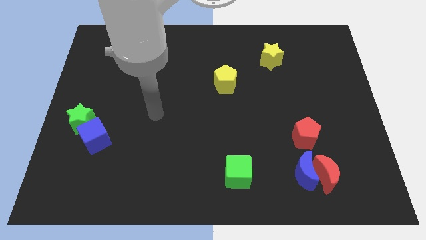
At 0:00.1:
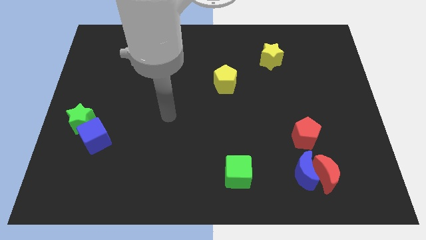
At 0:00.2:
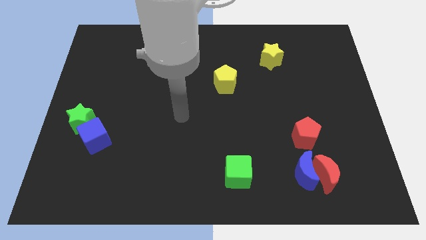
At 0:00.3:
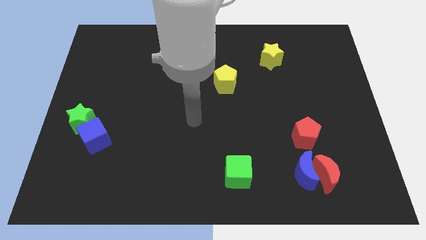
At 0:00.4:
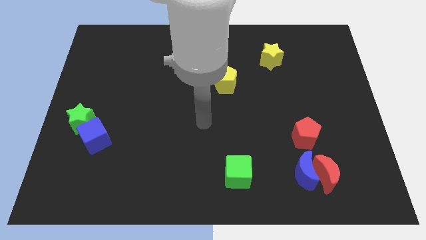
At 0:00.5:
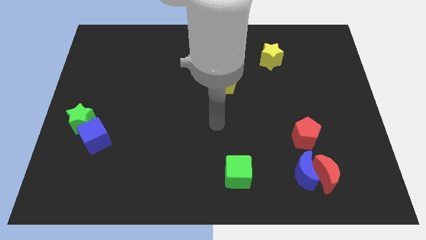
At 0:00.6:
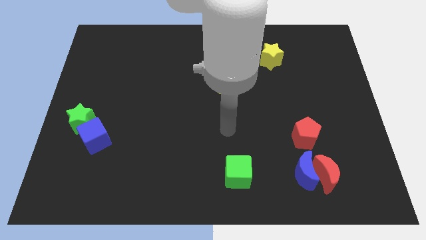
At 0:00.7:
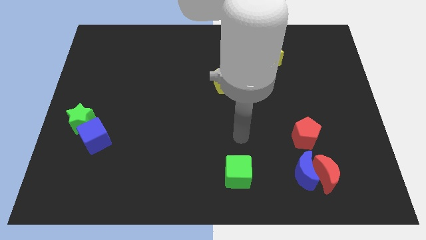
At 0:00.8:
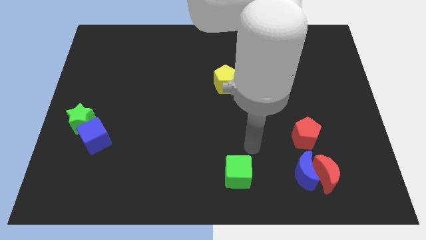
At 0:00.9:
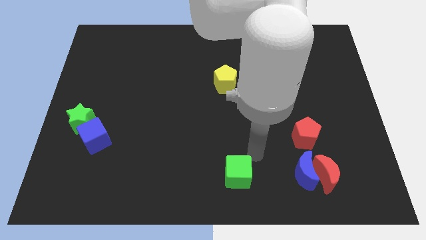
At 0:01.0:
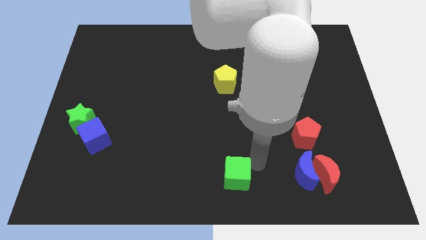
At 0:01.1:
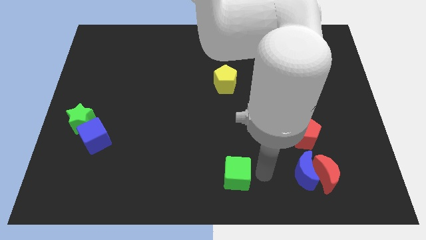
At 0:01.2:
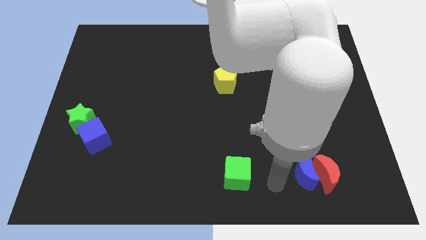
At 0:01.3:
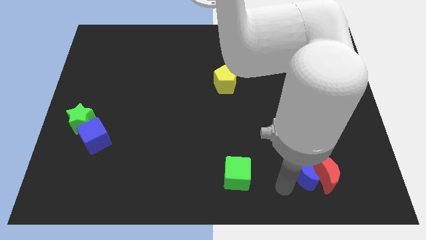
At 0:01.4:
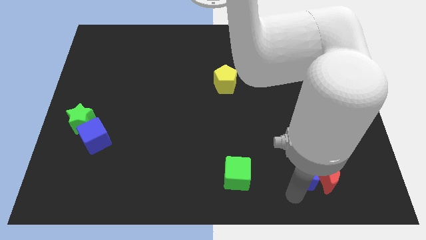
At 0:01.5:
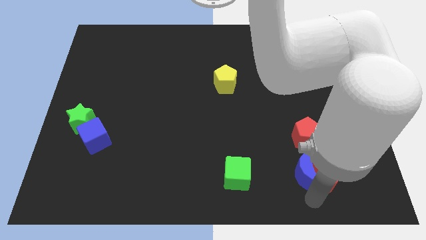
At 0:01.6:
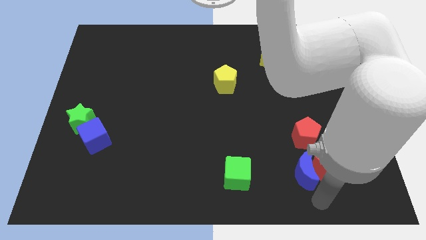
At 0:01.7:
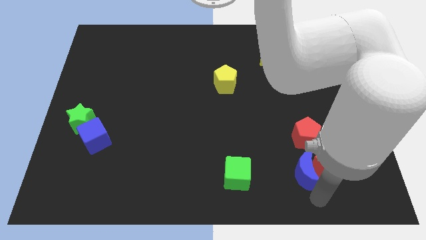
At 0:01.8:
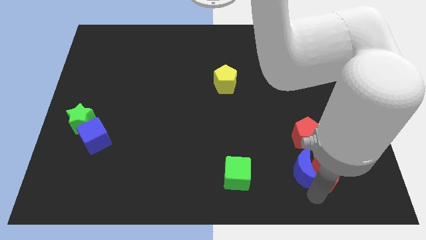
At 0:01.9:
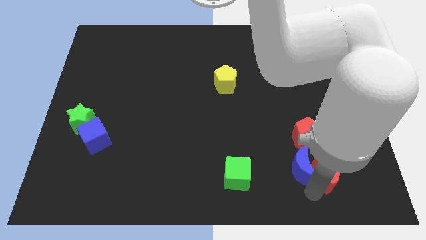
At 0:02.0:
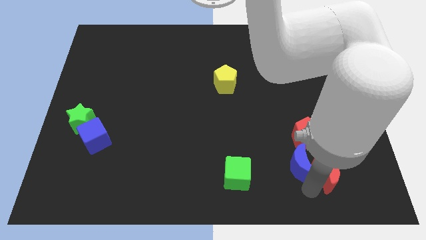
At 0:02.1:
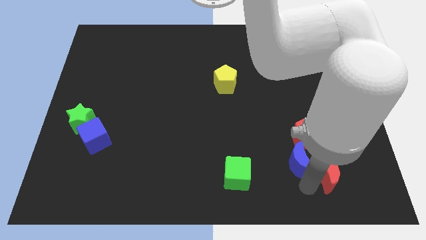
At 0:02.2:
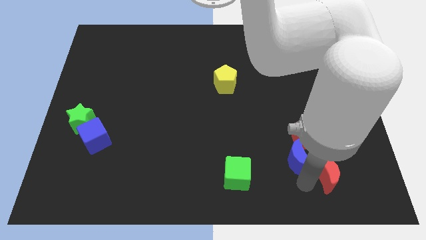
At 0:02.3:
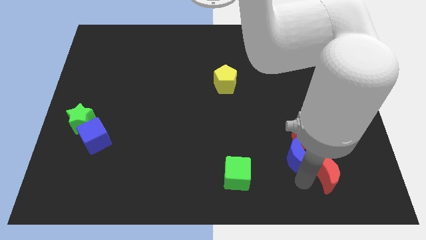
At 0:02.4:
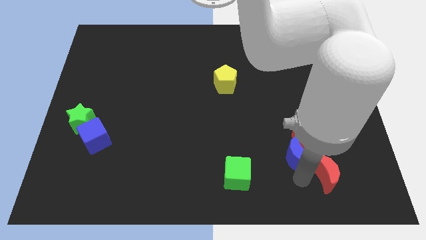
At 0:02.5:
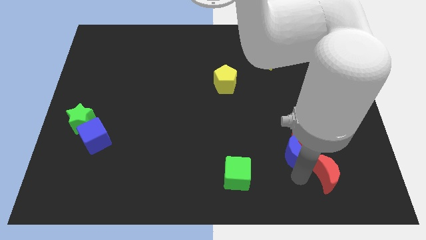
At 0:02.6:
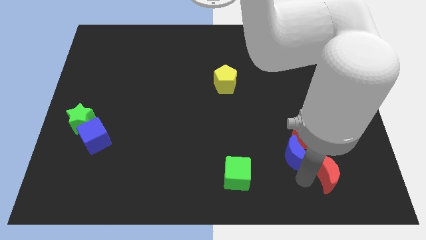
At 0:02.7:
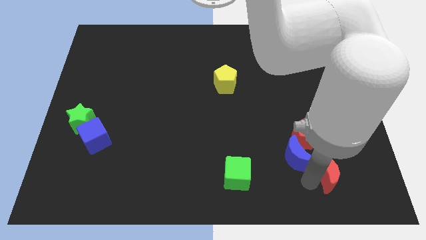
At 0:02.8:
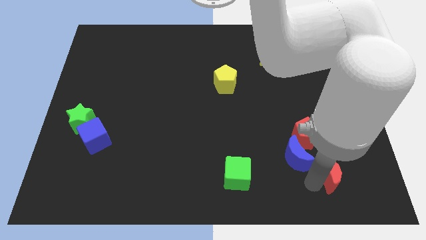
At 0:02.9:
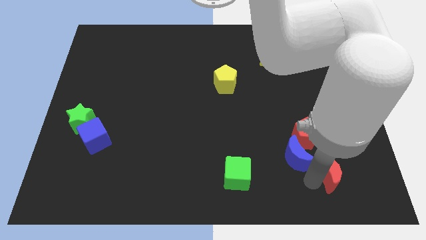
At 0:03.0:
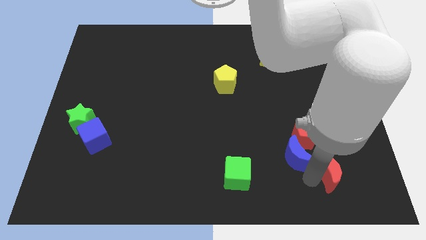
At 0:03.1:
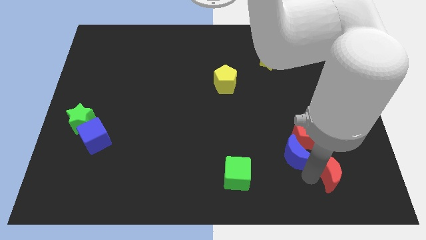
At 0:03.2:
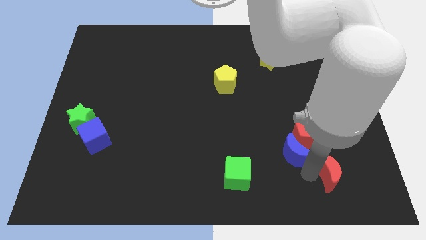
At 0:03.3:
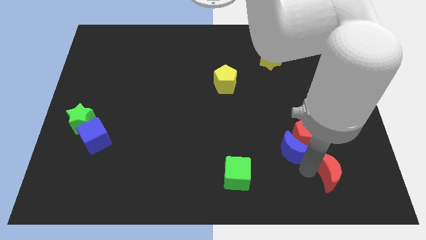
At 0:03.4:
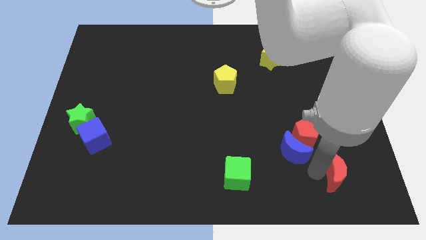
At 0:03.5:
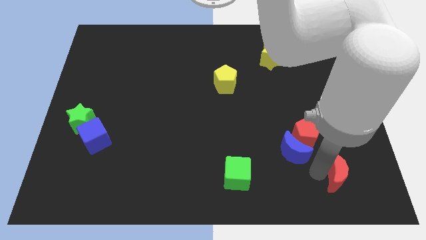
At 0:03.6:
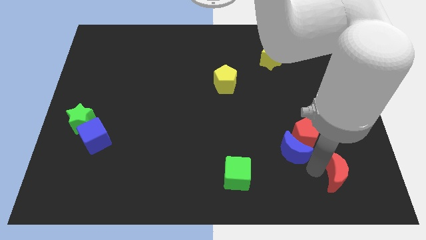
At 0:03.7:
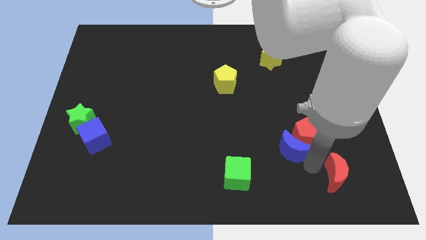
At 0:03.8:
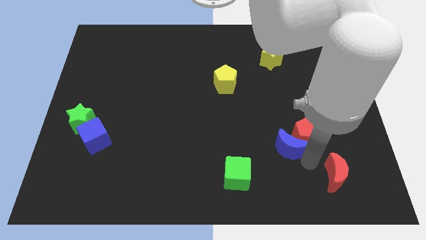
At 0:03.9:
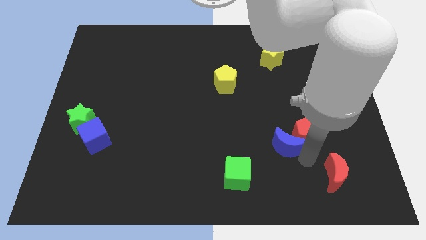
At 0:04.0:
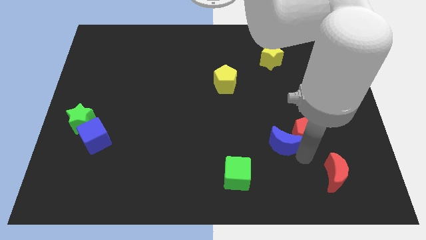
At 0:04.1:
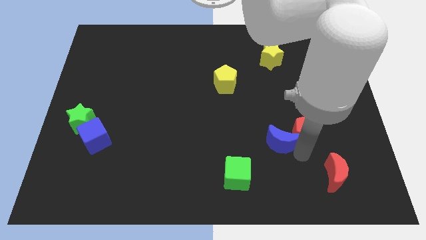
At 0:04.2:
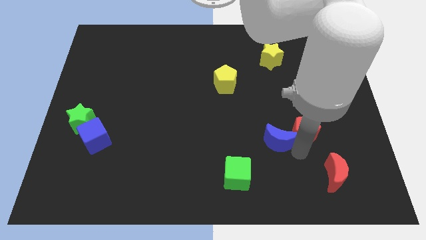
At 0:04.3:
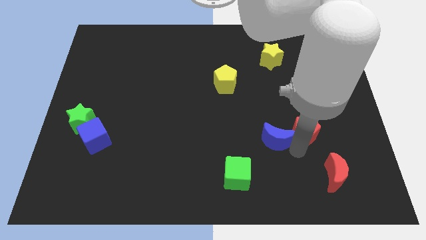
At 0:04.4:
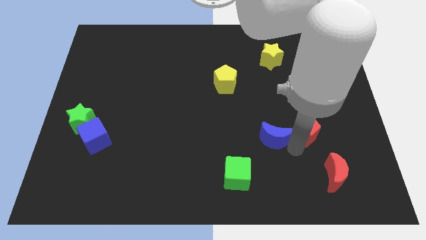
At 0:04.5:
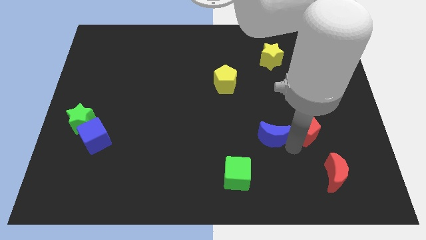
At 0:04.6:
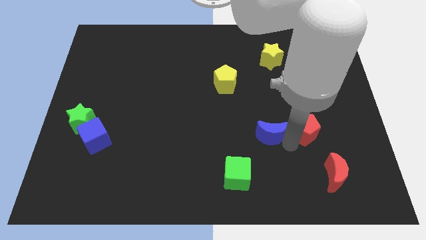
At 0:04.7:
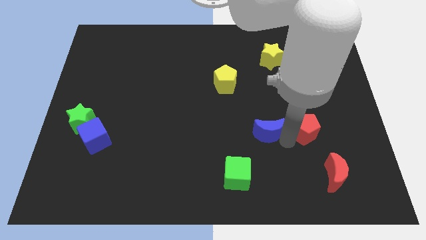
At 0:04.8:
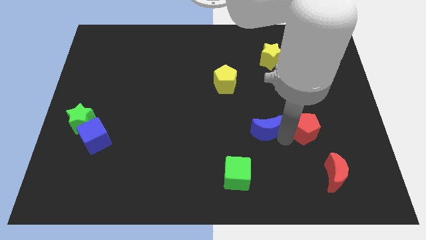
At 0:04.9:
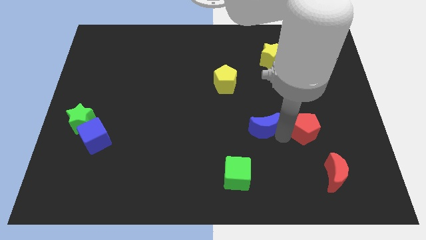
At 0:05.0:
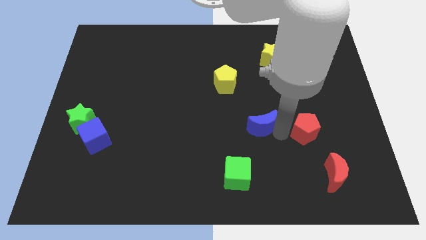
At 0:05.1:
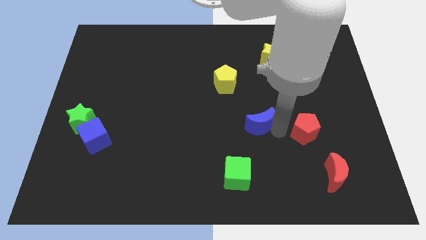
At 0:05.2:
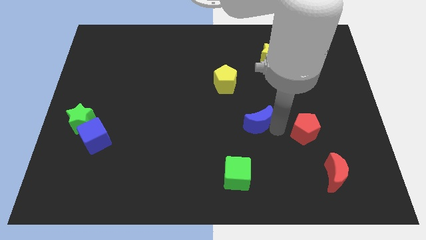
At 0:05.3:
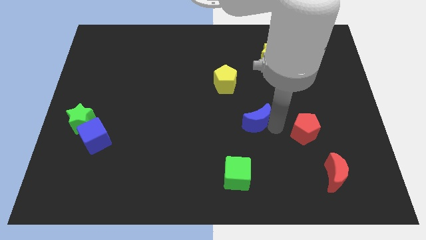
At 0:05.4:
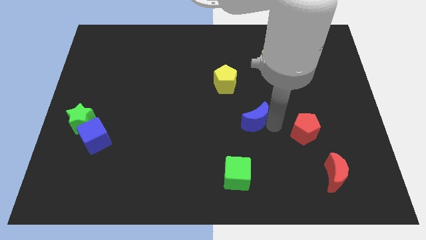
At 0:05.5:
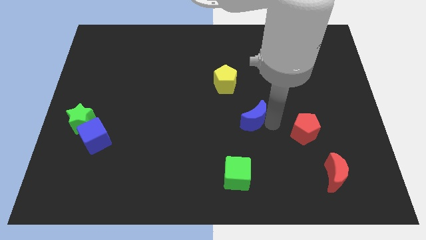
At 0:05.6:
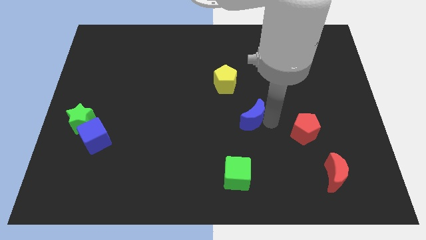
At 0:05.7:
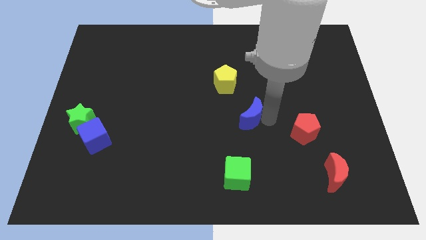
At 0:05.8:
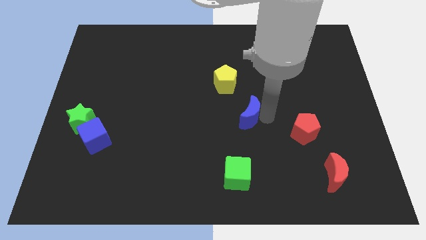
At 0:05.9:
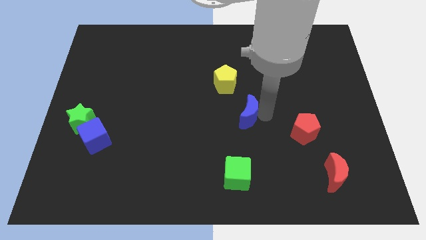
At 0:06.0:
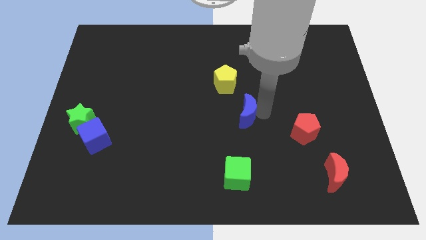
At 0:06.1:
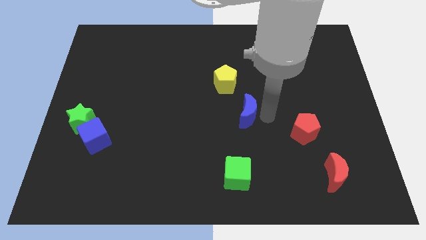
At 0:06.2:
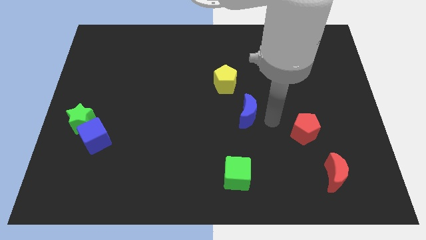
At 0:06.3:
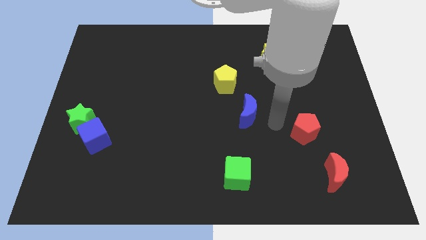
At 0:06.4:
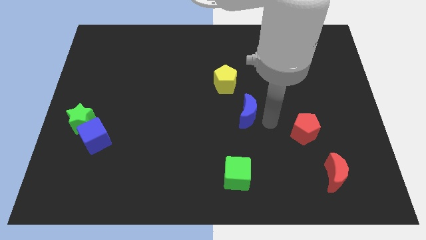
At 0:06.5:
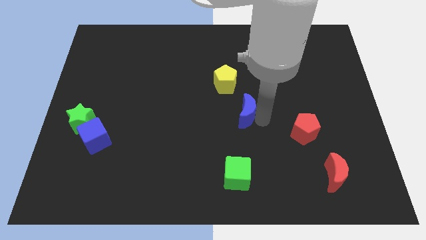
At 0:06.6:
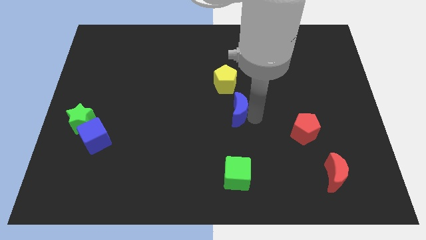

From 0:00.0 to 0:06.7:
push the blue moon upwards and then left

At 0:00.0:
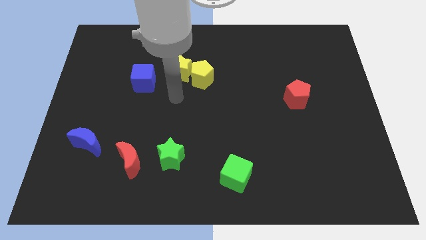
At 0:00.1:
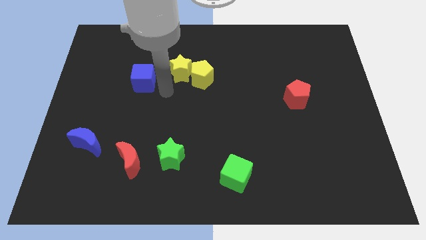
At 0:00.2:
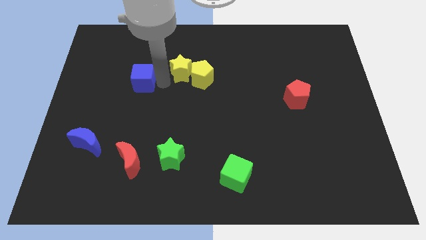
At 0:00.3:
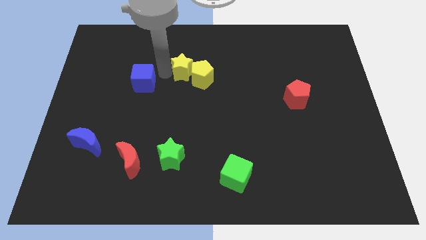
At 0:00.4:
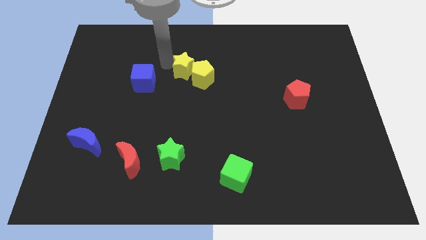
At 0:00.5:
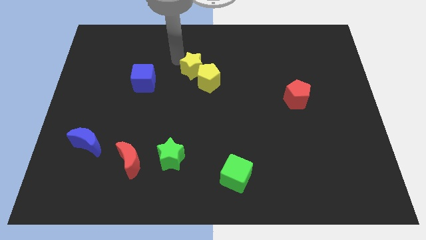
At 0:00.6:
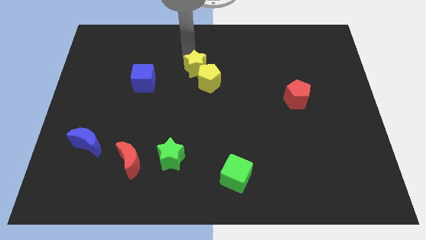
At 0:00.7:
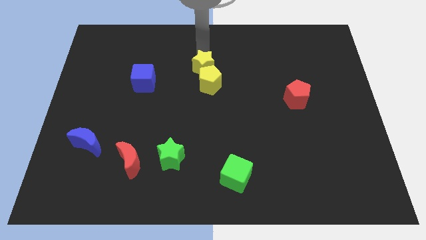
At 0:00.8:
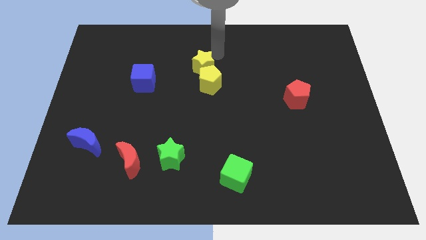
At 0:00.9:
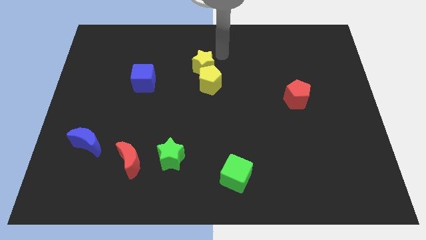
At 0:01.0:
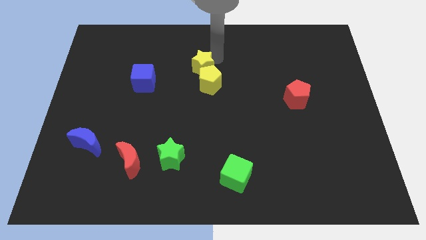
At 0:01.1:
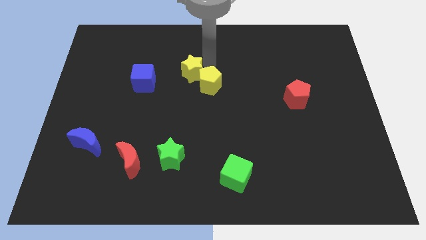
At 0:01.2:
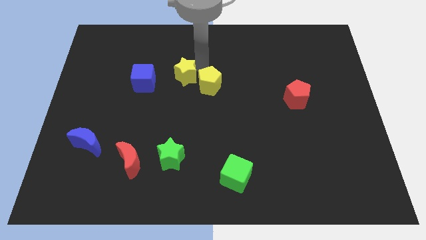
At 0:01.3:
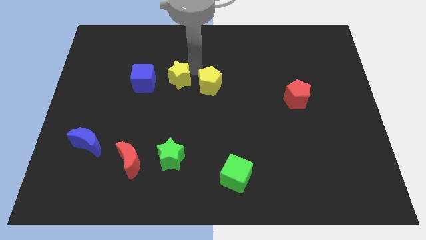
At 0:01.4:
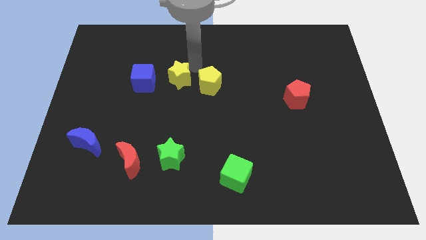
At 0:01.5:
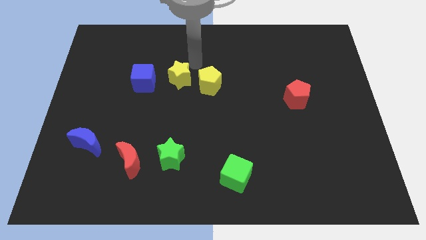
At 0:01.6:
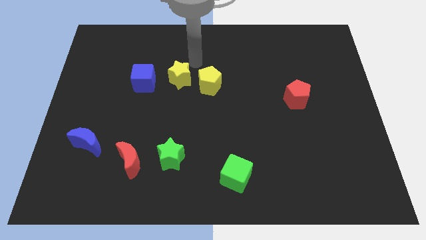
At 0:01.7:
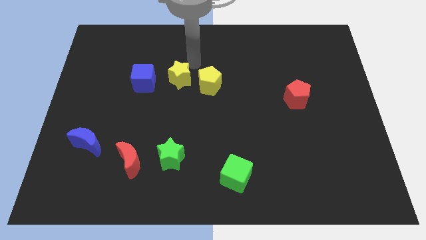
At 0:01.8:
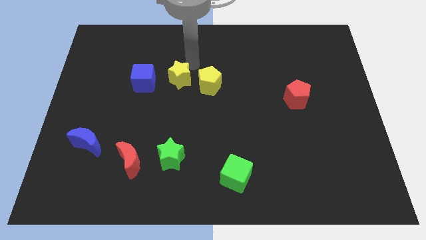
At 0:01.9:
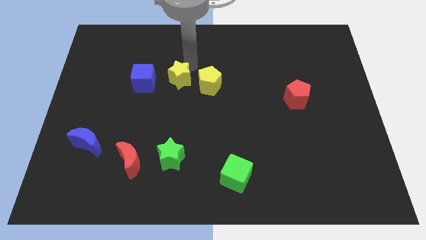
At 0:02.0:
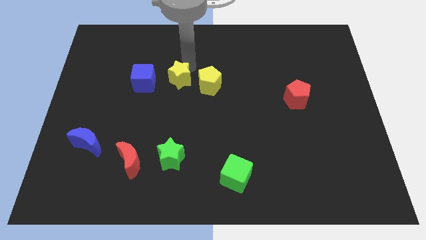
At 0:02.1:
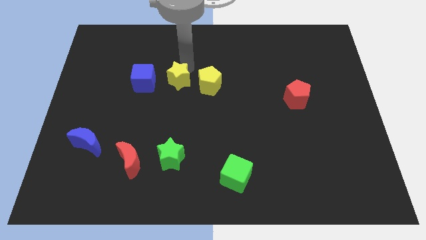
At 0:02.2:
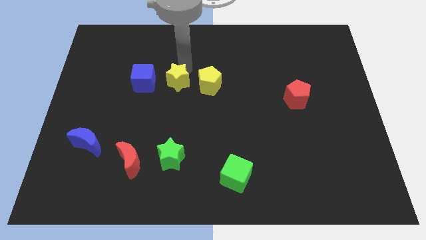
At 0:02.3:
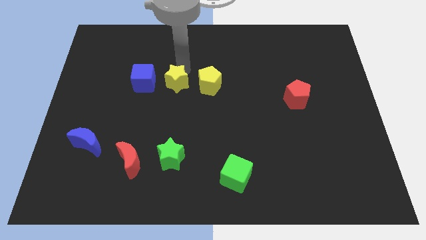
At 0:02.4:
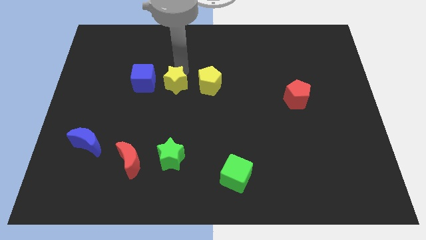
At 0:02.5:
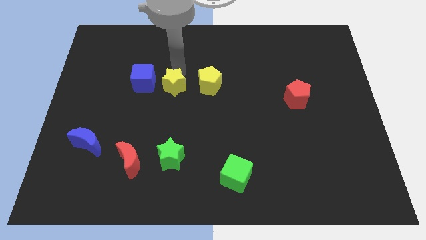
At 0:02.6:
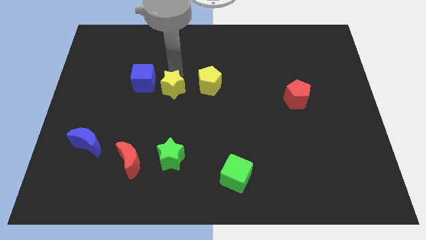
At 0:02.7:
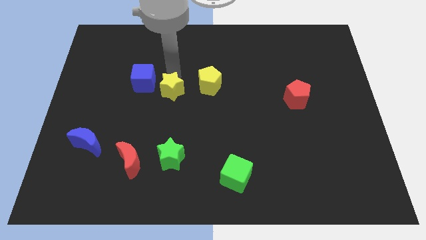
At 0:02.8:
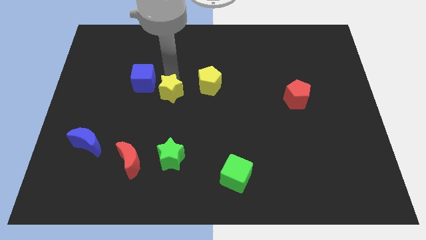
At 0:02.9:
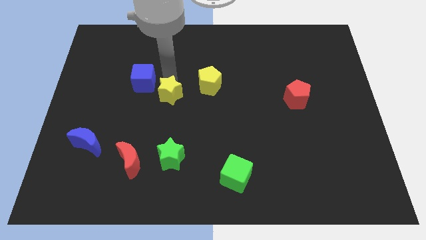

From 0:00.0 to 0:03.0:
slide the yellow star downwards a bit
